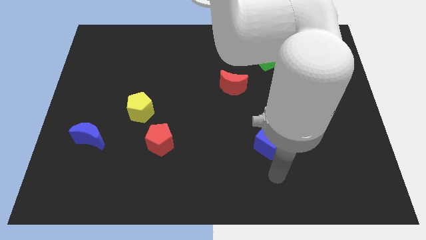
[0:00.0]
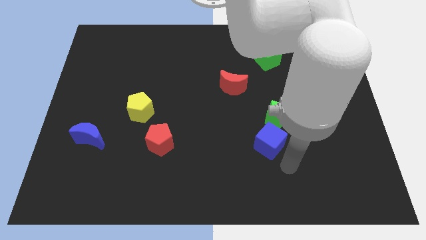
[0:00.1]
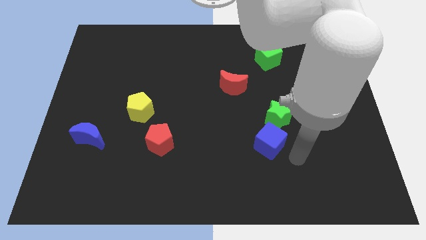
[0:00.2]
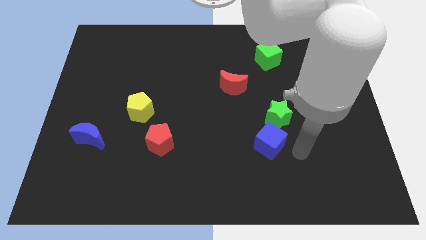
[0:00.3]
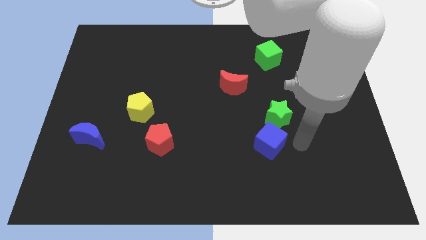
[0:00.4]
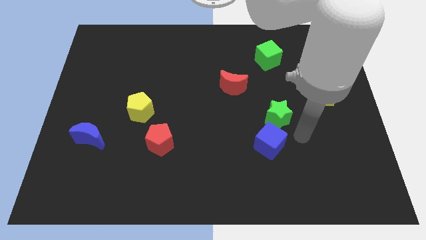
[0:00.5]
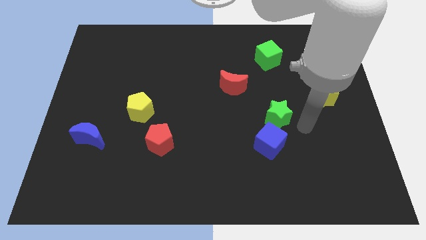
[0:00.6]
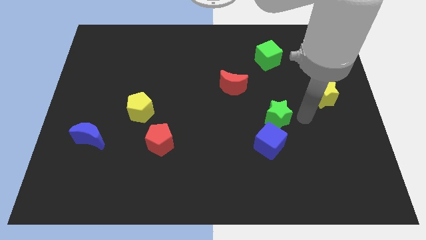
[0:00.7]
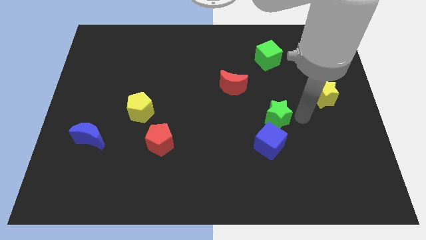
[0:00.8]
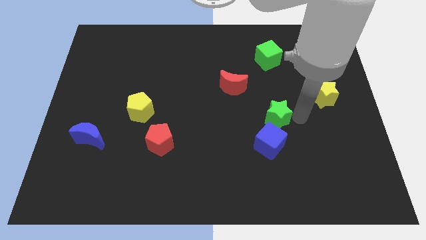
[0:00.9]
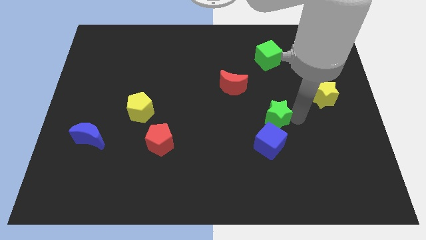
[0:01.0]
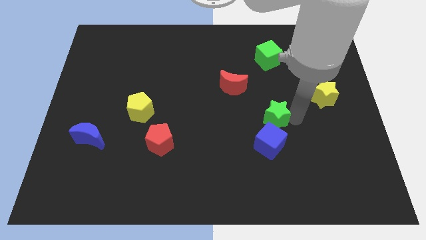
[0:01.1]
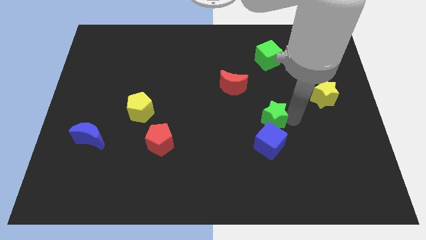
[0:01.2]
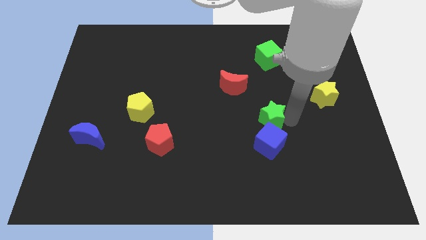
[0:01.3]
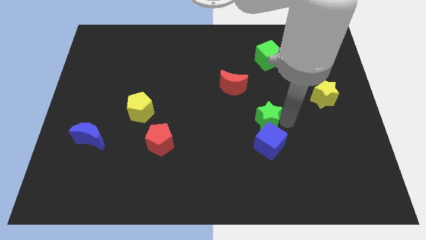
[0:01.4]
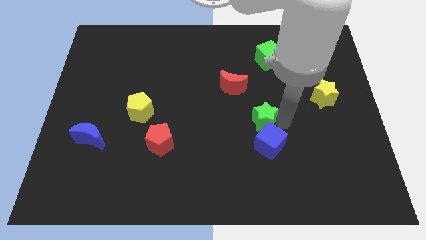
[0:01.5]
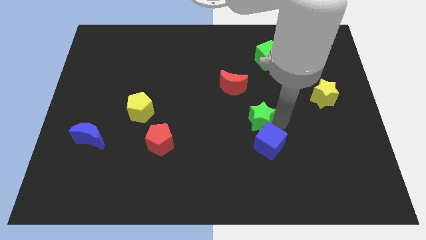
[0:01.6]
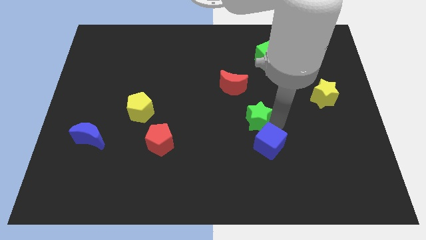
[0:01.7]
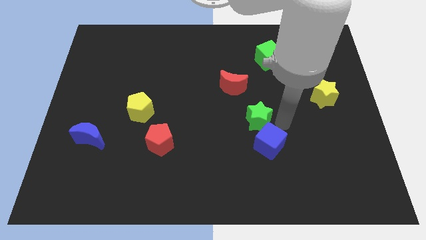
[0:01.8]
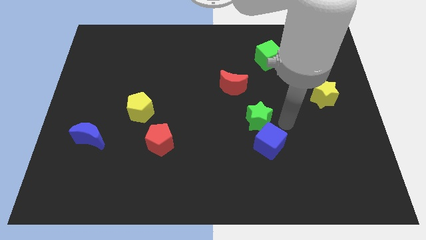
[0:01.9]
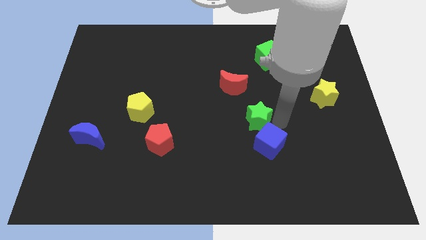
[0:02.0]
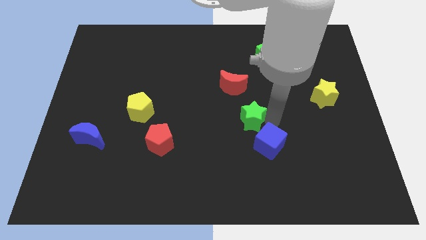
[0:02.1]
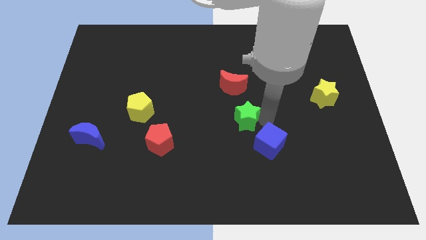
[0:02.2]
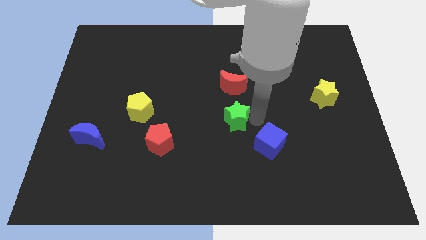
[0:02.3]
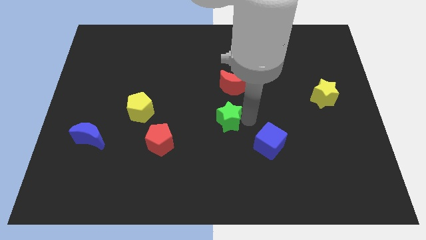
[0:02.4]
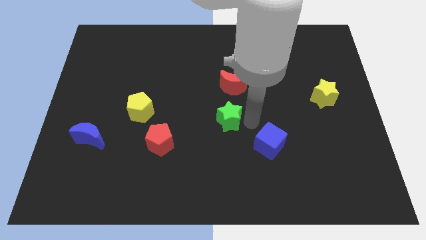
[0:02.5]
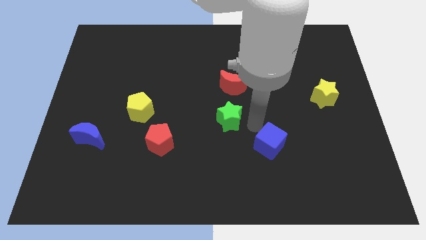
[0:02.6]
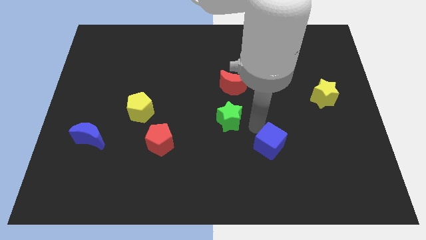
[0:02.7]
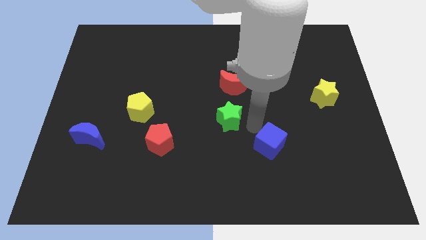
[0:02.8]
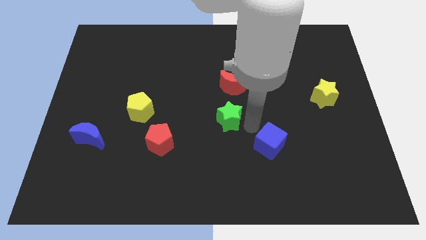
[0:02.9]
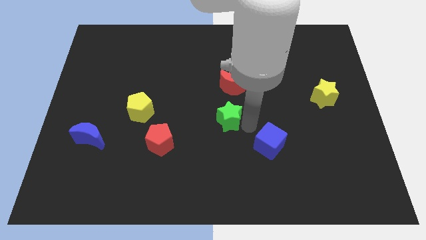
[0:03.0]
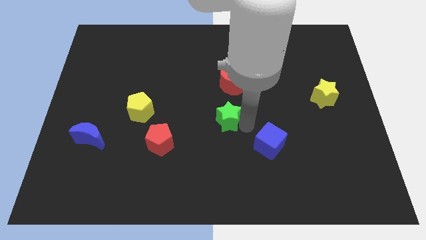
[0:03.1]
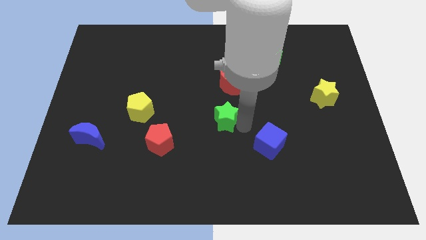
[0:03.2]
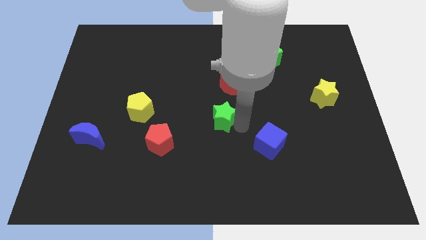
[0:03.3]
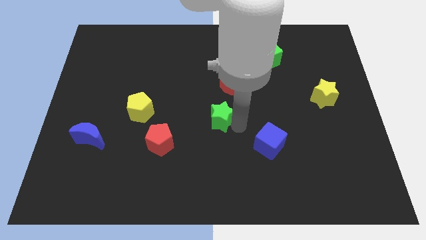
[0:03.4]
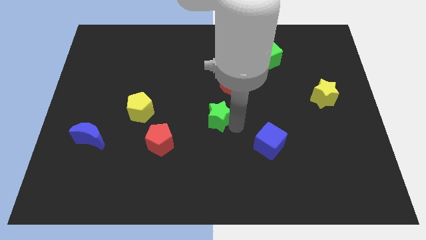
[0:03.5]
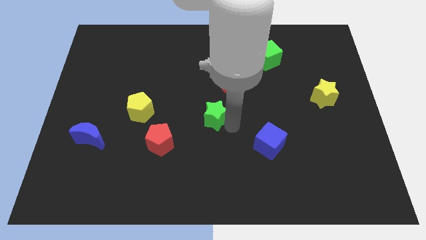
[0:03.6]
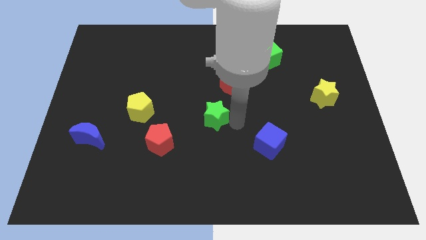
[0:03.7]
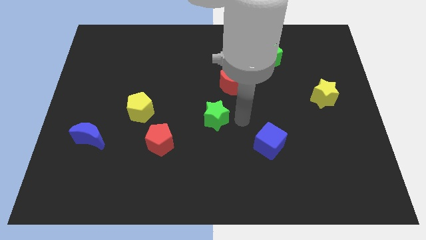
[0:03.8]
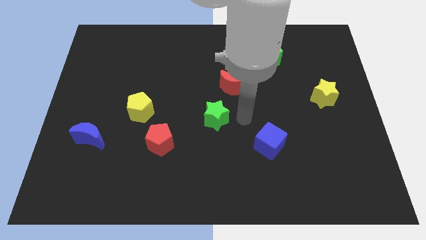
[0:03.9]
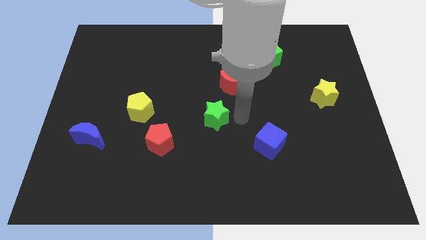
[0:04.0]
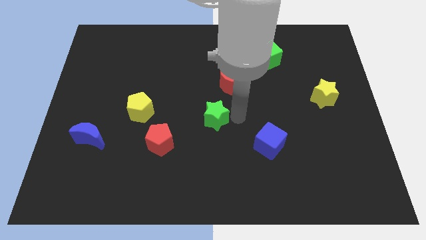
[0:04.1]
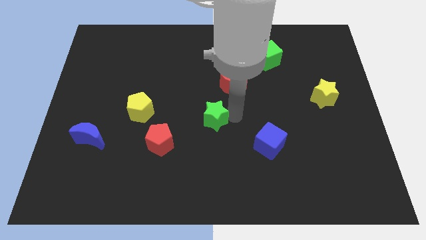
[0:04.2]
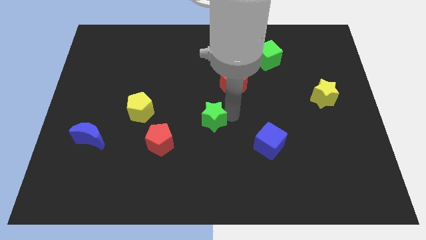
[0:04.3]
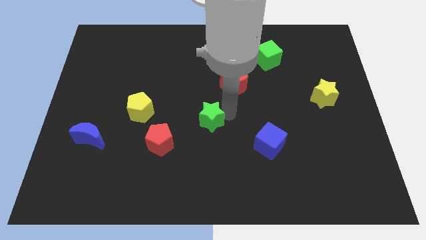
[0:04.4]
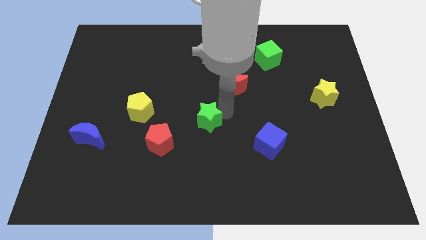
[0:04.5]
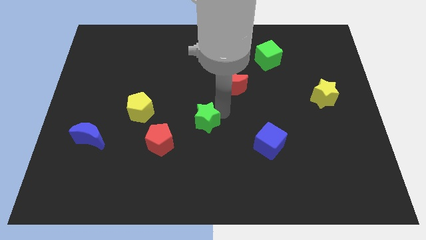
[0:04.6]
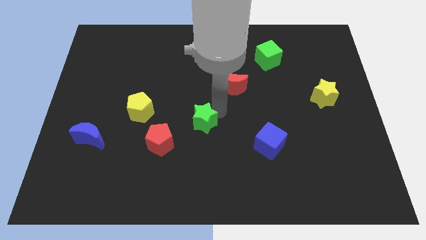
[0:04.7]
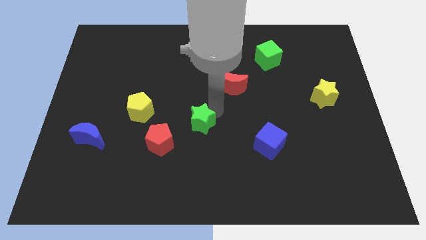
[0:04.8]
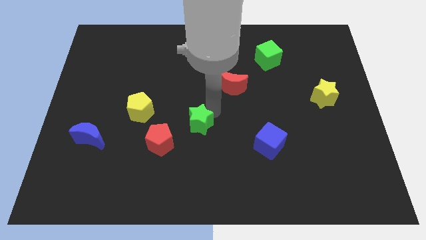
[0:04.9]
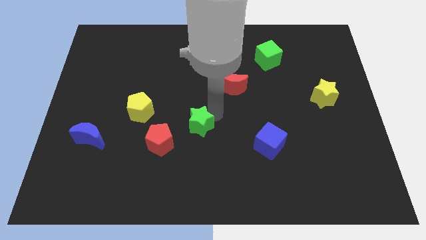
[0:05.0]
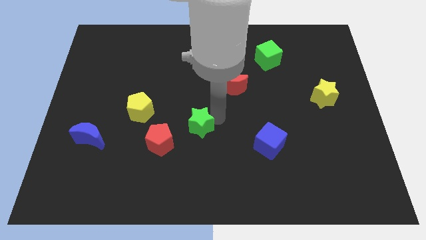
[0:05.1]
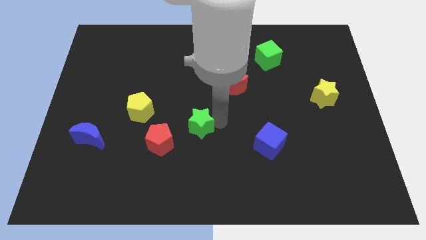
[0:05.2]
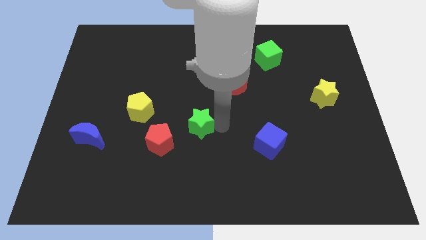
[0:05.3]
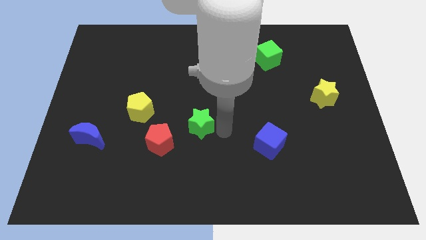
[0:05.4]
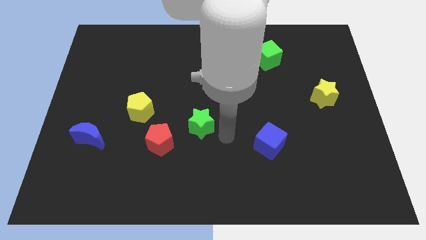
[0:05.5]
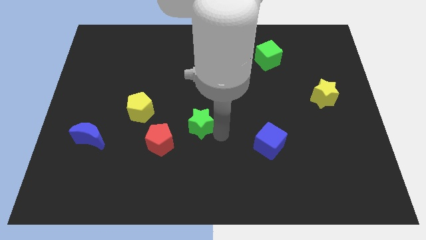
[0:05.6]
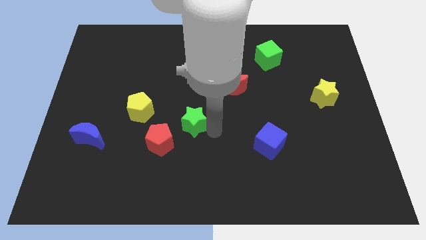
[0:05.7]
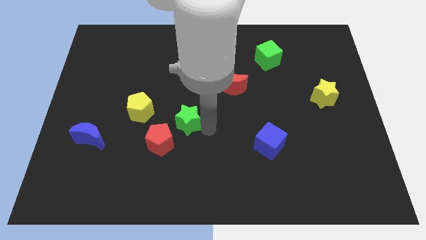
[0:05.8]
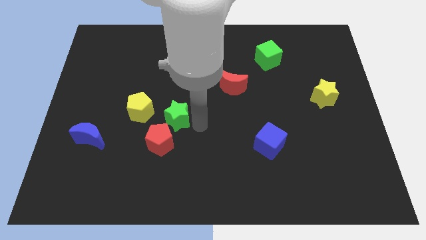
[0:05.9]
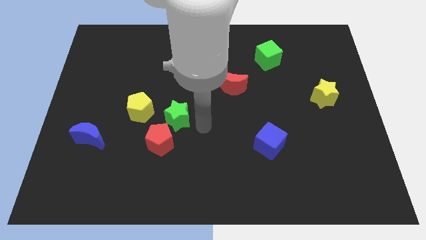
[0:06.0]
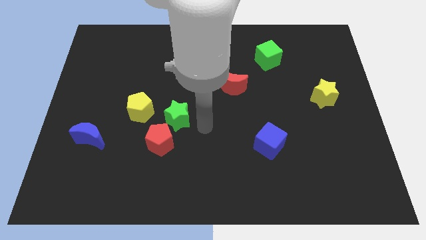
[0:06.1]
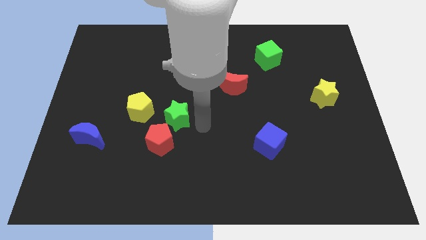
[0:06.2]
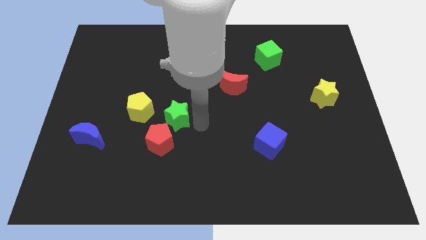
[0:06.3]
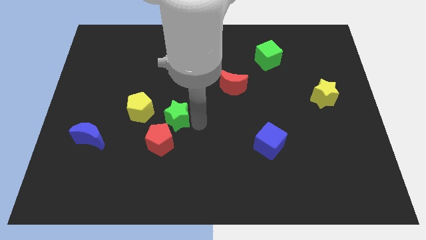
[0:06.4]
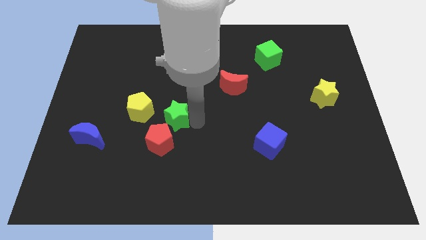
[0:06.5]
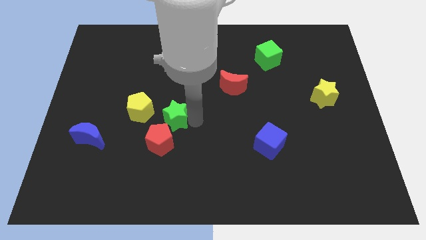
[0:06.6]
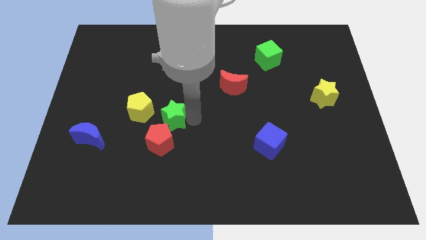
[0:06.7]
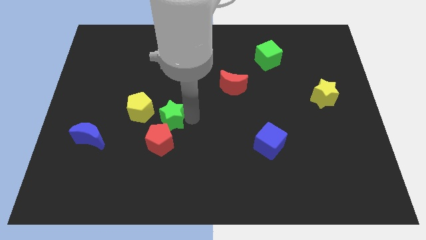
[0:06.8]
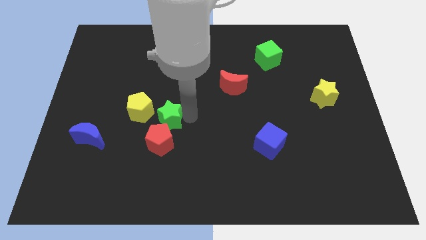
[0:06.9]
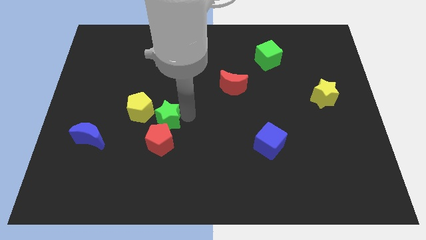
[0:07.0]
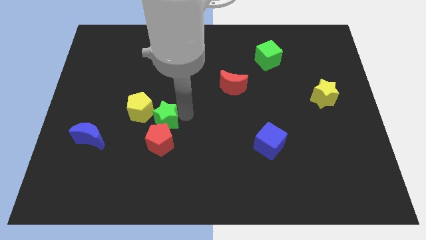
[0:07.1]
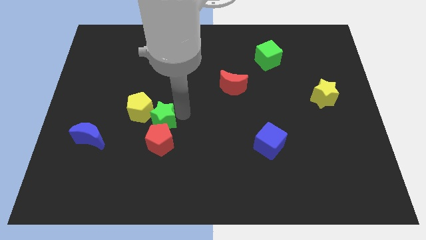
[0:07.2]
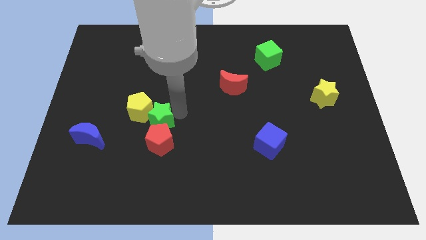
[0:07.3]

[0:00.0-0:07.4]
slide the green star towards the yellow pentagon
